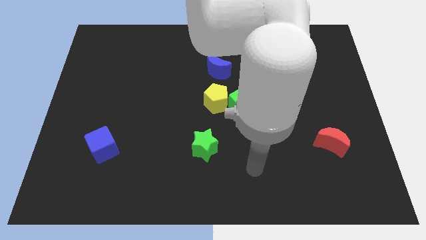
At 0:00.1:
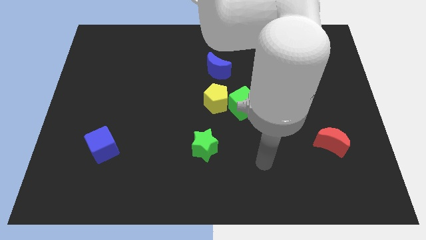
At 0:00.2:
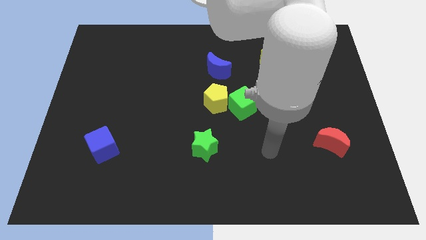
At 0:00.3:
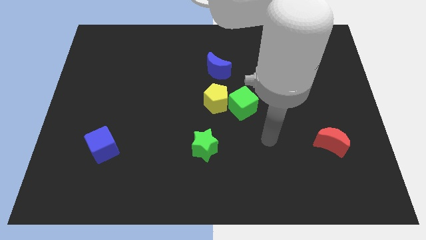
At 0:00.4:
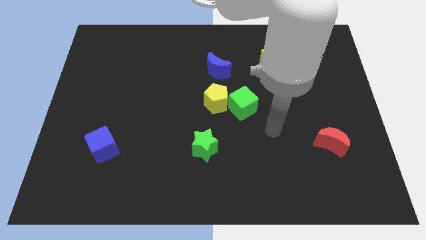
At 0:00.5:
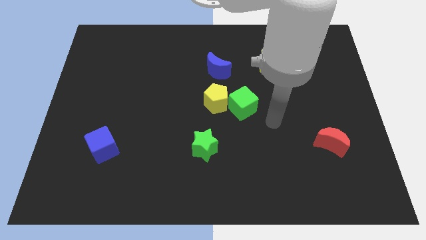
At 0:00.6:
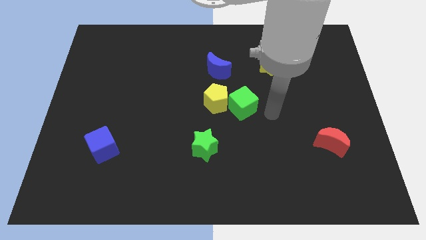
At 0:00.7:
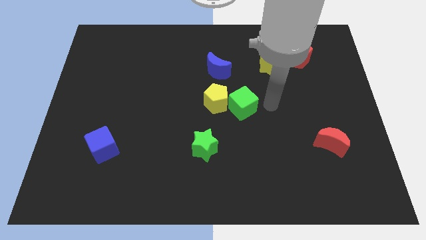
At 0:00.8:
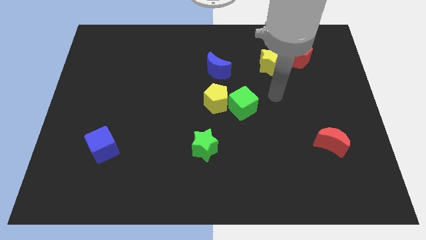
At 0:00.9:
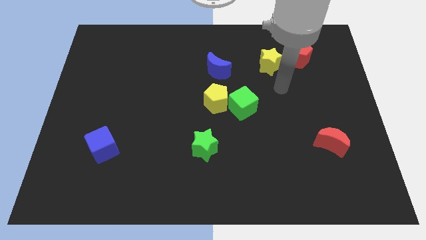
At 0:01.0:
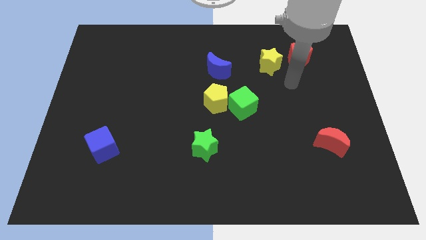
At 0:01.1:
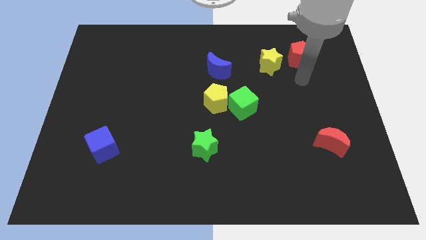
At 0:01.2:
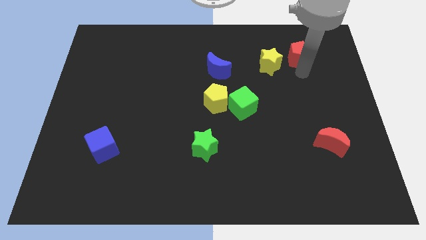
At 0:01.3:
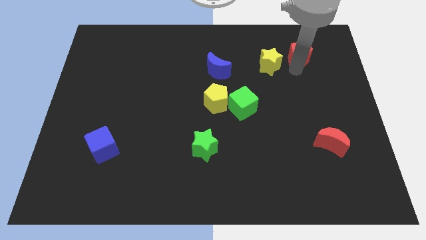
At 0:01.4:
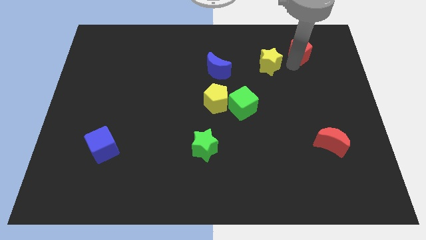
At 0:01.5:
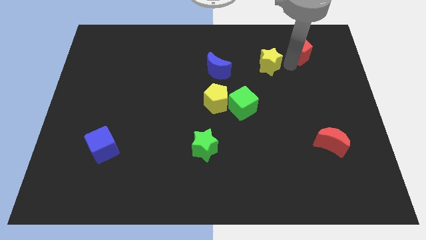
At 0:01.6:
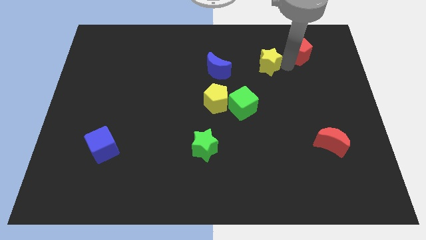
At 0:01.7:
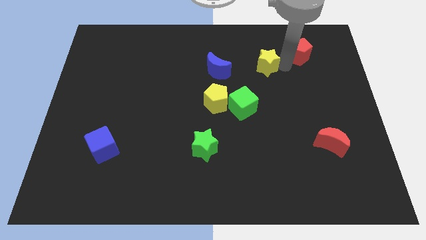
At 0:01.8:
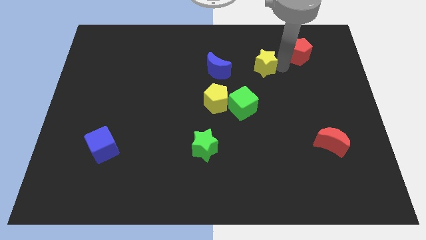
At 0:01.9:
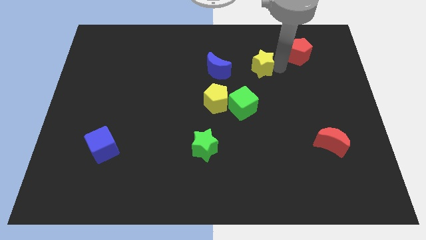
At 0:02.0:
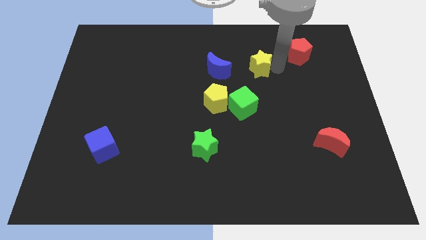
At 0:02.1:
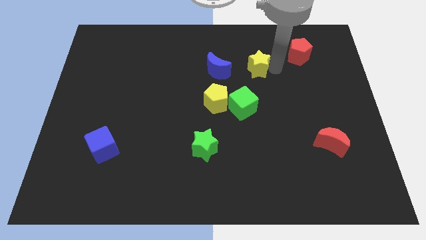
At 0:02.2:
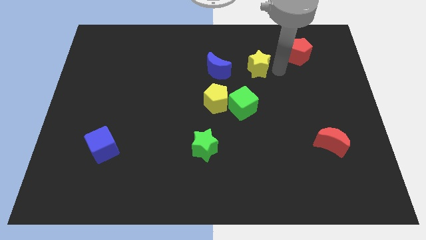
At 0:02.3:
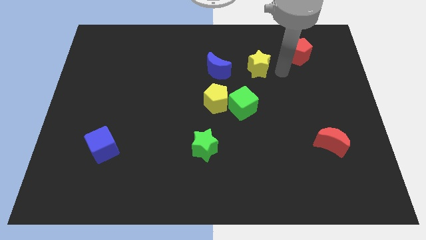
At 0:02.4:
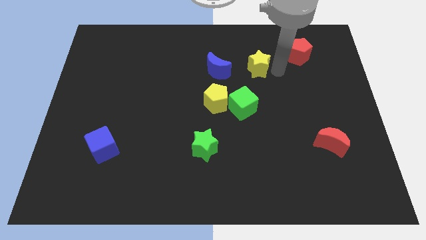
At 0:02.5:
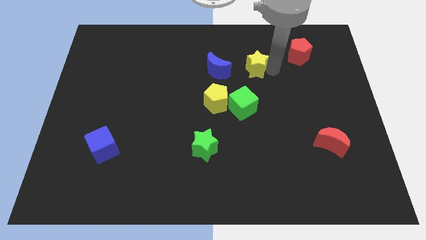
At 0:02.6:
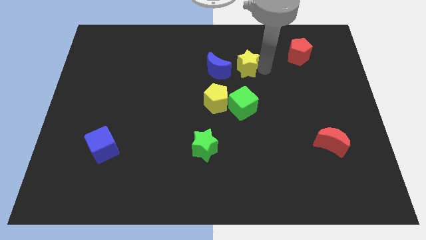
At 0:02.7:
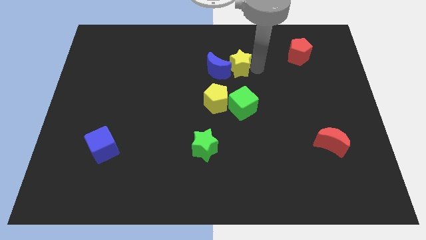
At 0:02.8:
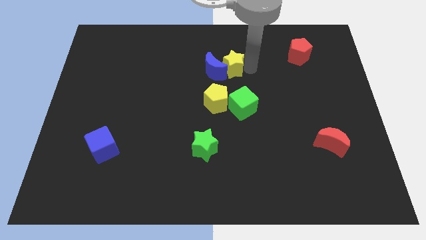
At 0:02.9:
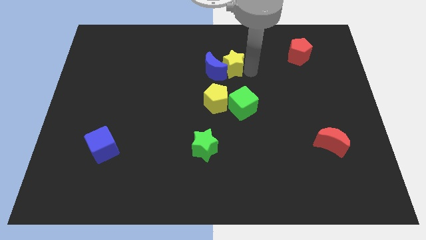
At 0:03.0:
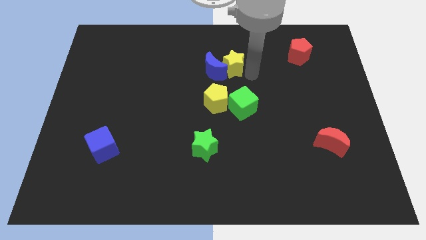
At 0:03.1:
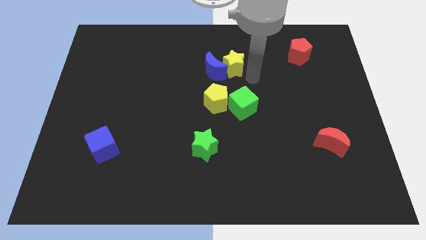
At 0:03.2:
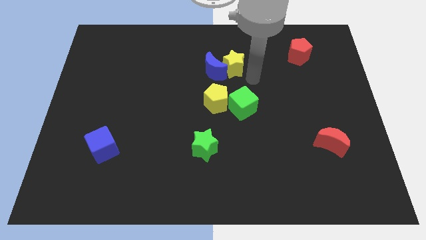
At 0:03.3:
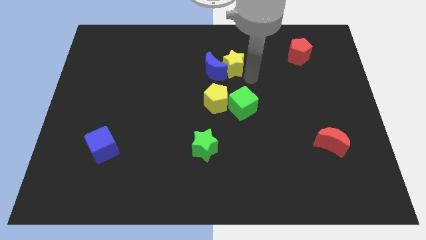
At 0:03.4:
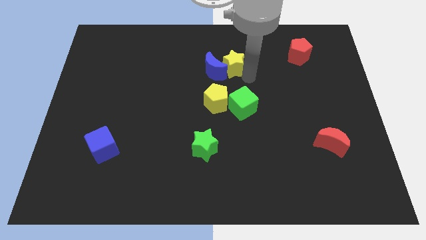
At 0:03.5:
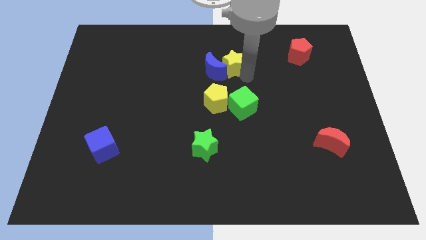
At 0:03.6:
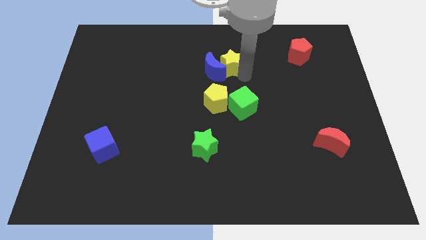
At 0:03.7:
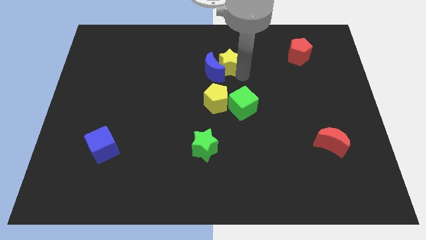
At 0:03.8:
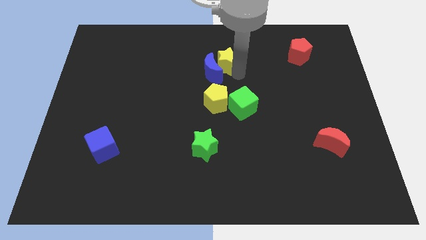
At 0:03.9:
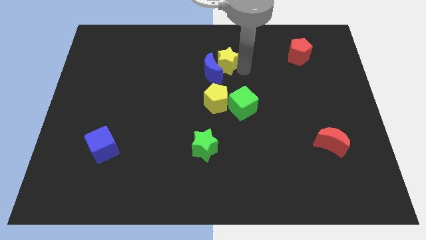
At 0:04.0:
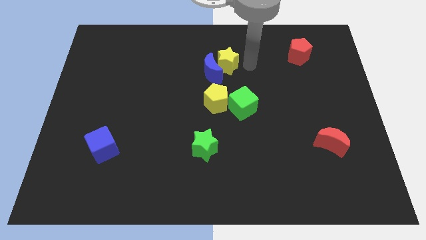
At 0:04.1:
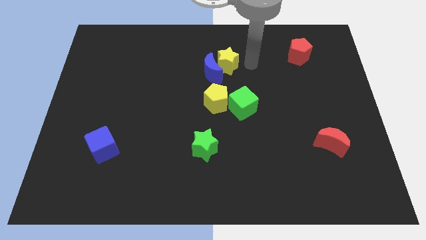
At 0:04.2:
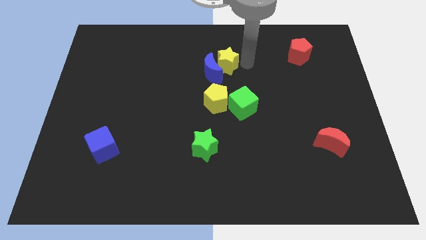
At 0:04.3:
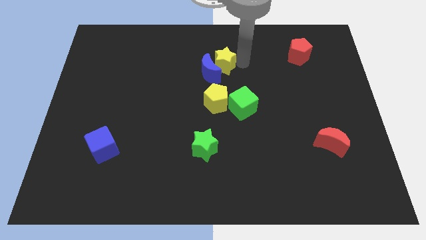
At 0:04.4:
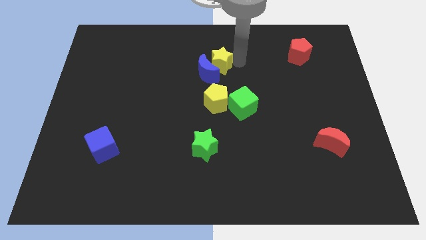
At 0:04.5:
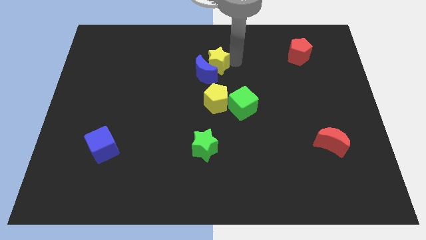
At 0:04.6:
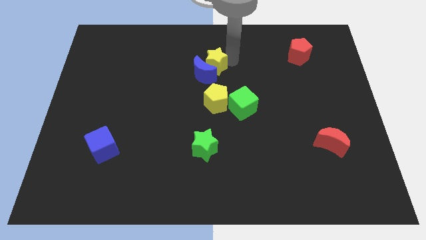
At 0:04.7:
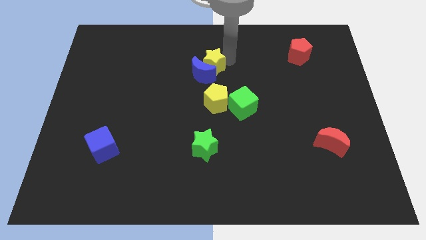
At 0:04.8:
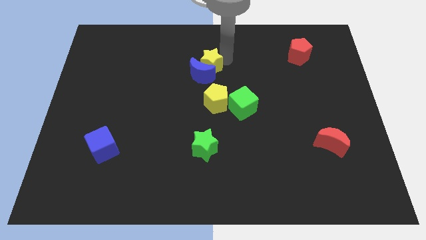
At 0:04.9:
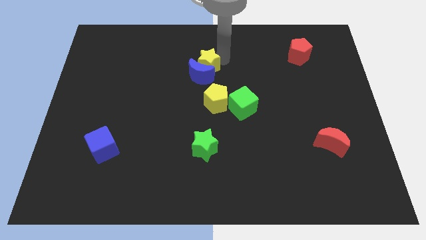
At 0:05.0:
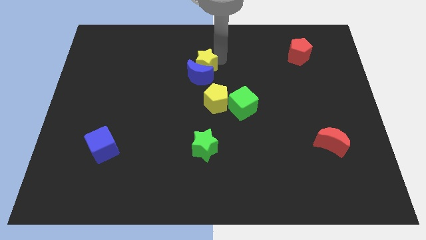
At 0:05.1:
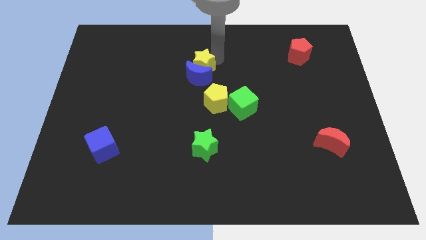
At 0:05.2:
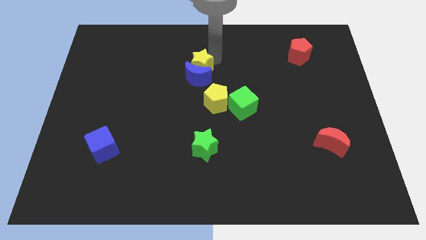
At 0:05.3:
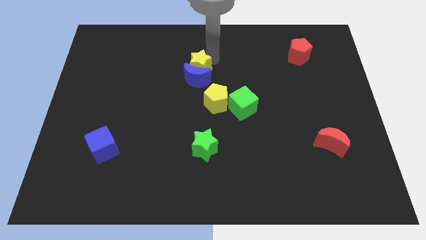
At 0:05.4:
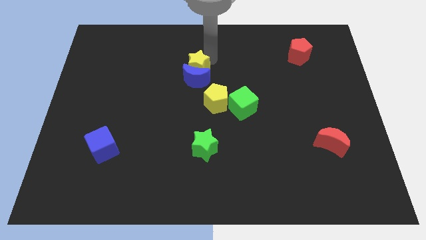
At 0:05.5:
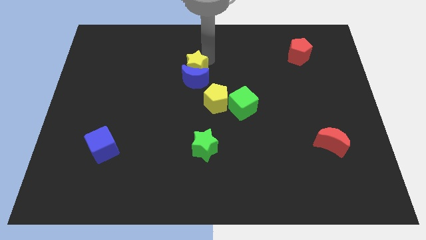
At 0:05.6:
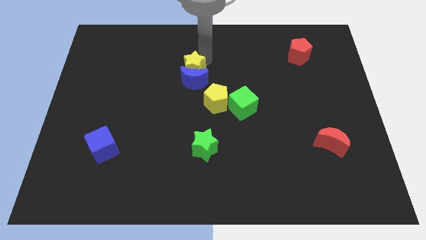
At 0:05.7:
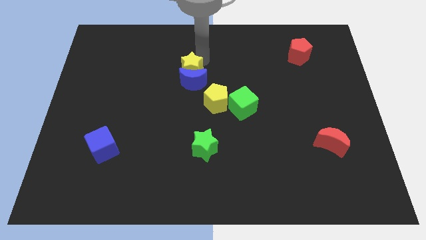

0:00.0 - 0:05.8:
slide the yellow star left

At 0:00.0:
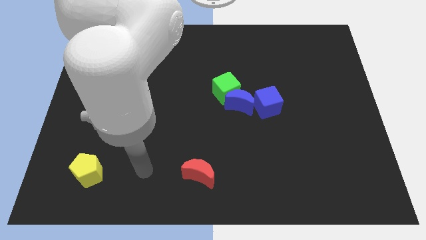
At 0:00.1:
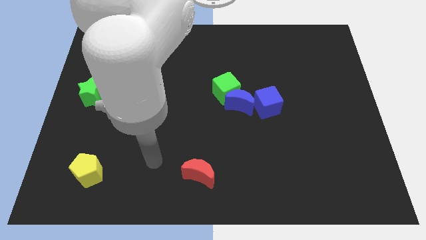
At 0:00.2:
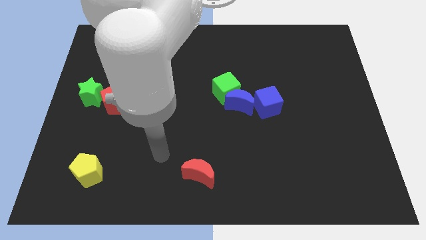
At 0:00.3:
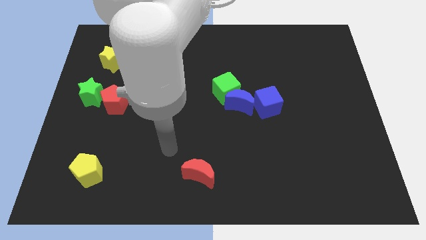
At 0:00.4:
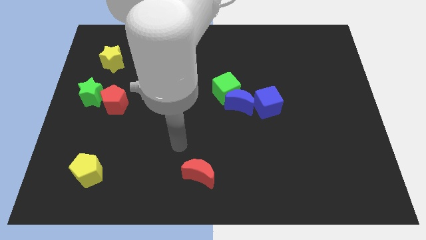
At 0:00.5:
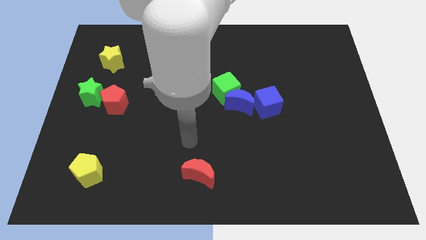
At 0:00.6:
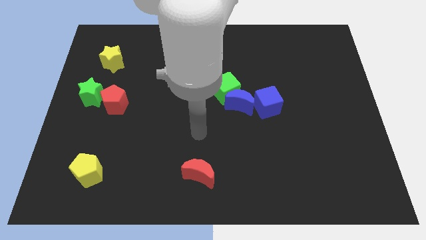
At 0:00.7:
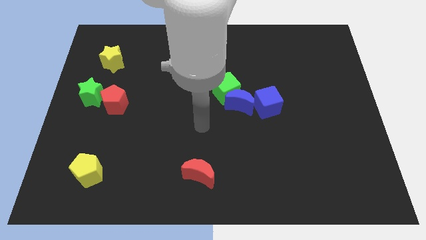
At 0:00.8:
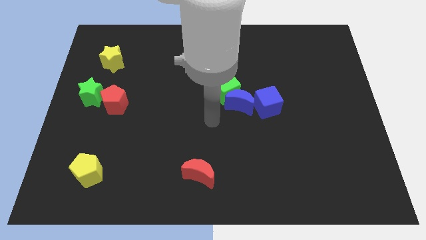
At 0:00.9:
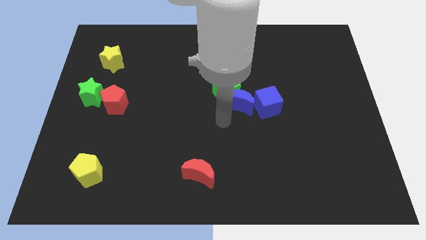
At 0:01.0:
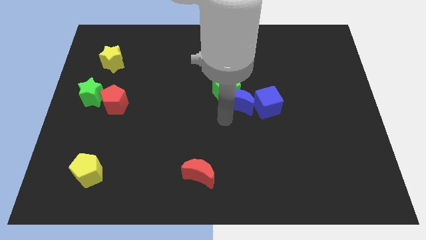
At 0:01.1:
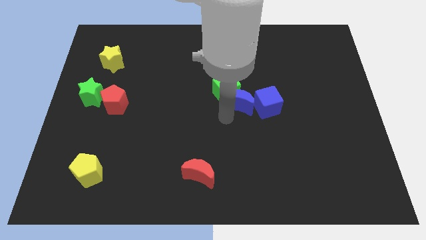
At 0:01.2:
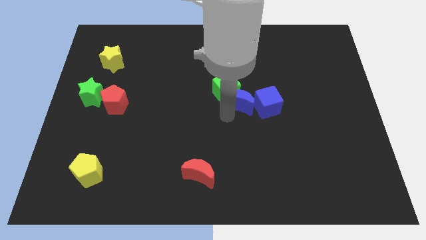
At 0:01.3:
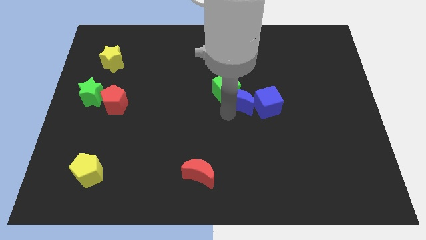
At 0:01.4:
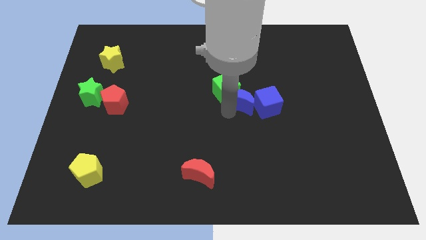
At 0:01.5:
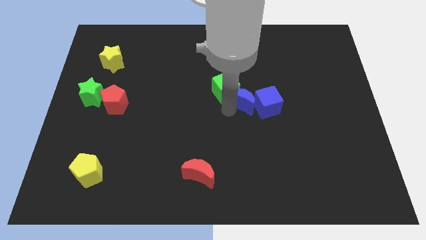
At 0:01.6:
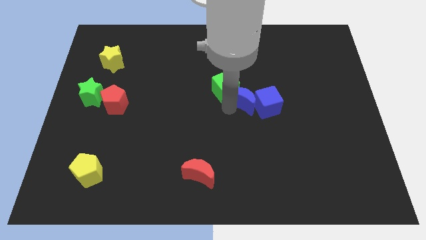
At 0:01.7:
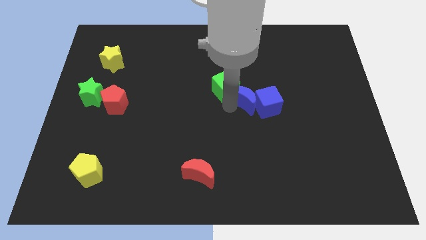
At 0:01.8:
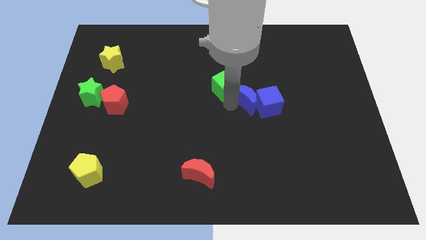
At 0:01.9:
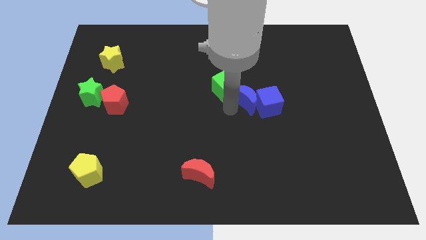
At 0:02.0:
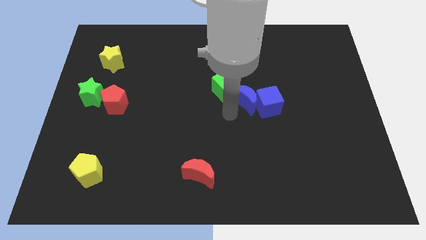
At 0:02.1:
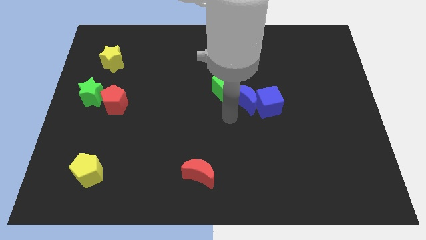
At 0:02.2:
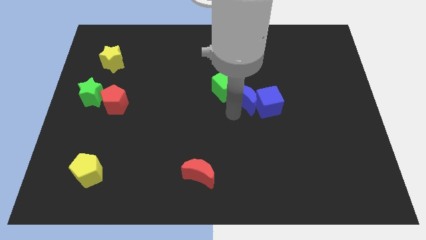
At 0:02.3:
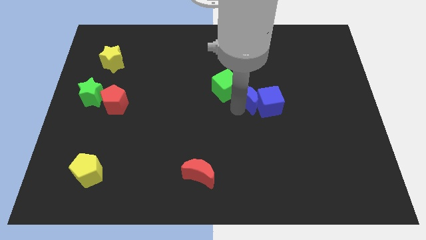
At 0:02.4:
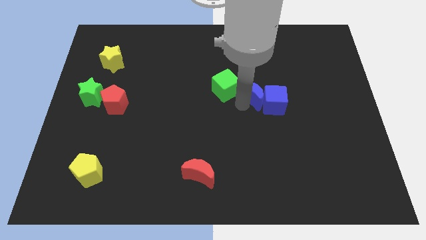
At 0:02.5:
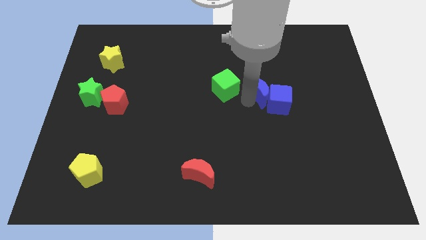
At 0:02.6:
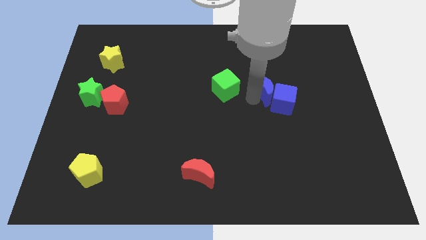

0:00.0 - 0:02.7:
move the blue moon a bit up and right
